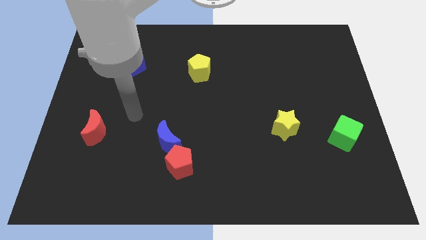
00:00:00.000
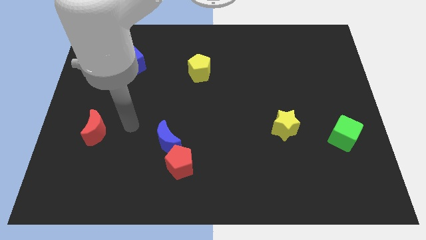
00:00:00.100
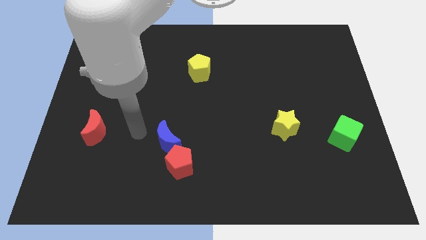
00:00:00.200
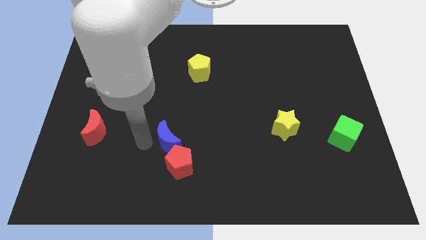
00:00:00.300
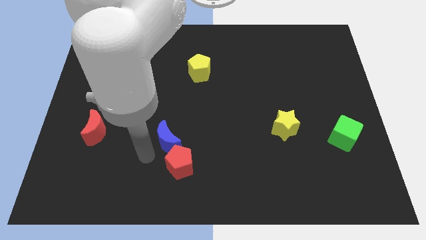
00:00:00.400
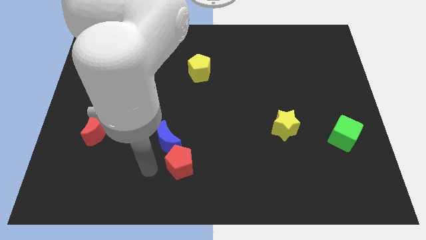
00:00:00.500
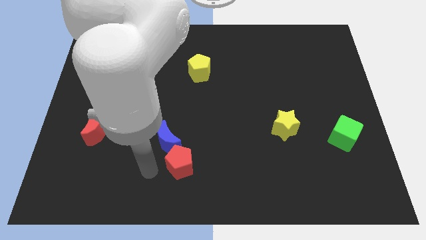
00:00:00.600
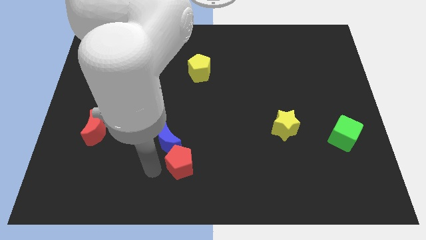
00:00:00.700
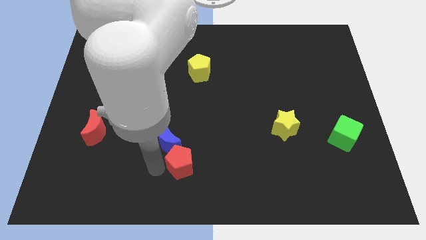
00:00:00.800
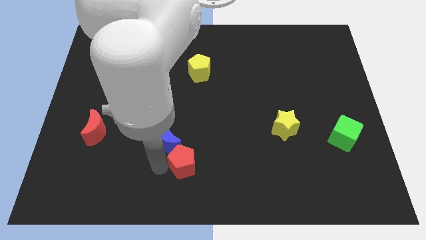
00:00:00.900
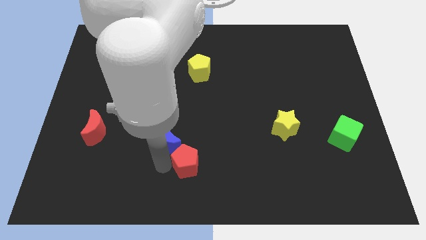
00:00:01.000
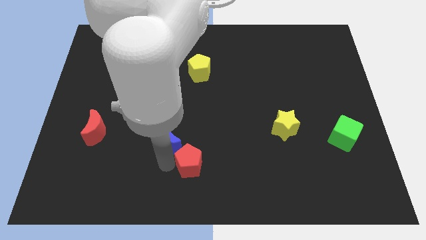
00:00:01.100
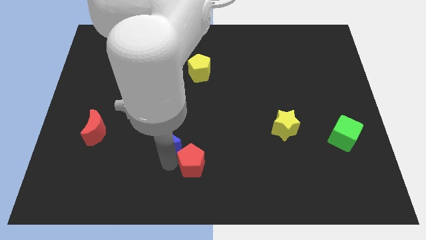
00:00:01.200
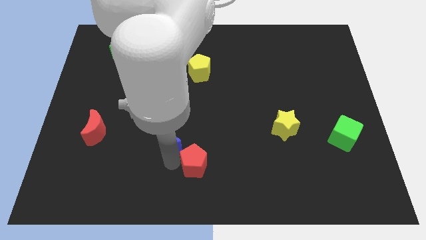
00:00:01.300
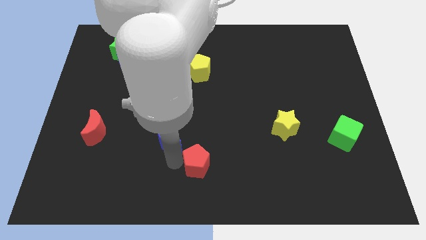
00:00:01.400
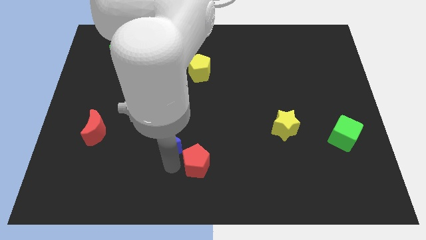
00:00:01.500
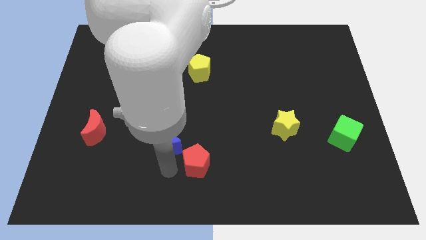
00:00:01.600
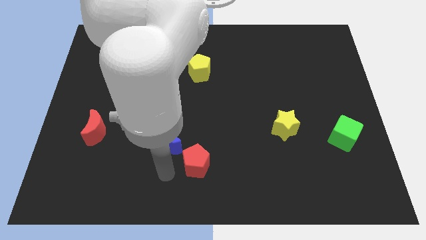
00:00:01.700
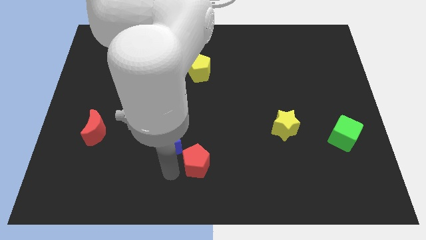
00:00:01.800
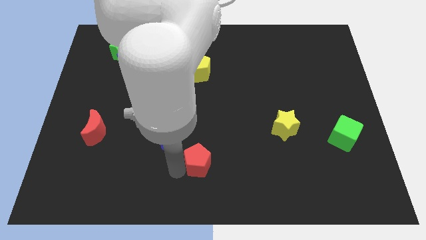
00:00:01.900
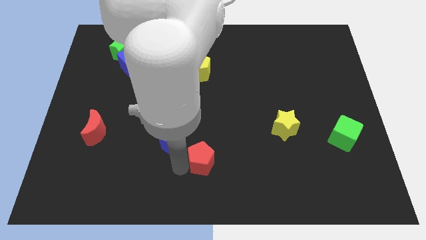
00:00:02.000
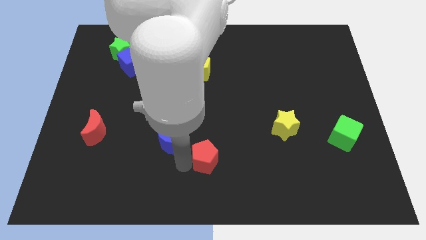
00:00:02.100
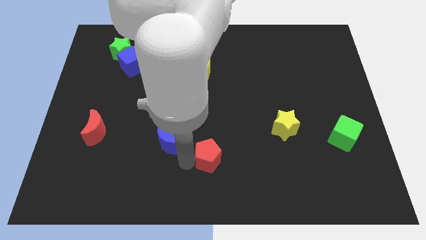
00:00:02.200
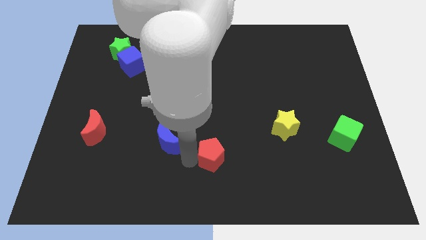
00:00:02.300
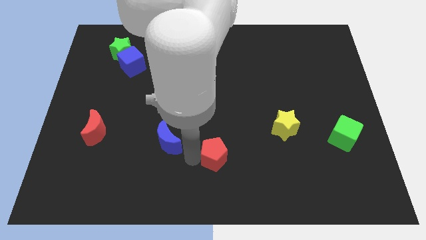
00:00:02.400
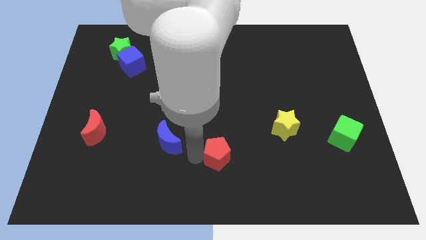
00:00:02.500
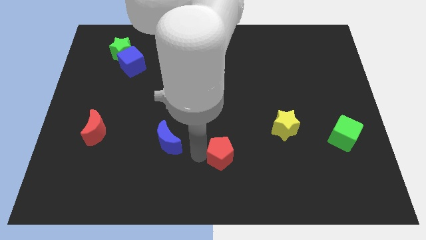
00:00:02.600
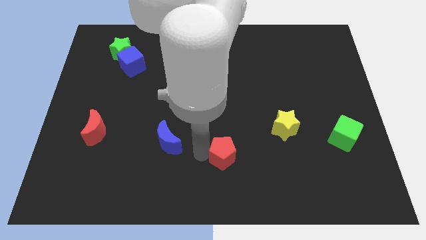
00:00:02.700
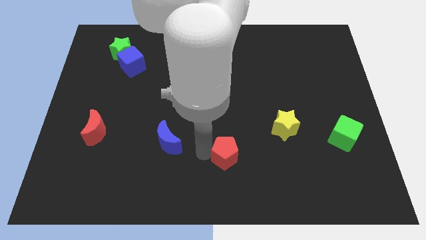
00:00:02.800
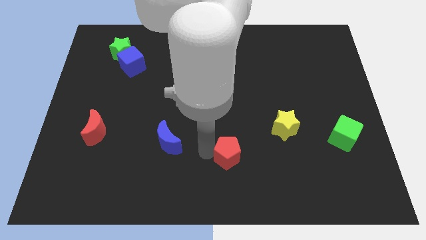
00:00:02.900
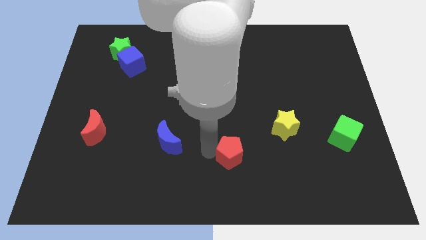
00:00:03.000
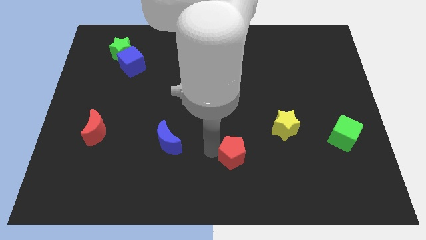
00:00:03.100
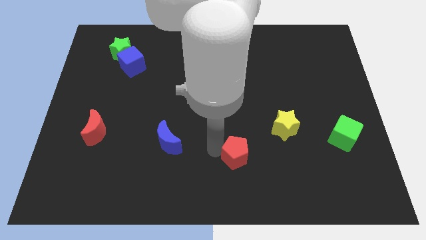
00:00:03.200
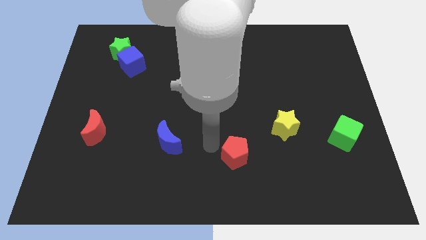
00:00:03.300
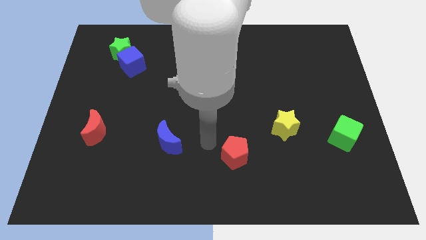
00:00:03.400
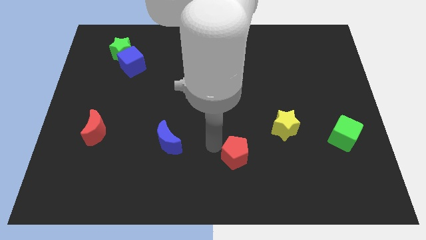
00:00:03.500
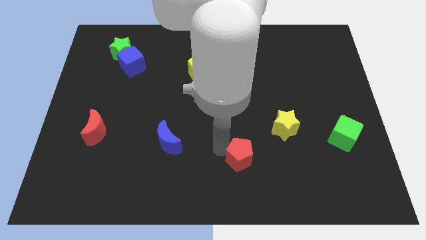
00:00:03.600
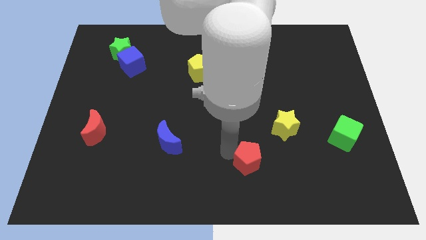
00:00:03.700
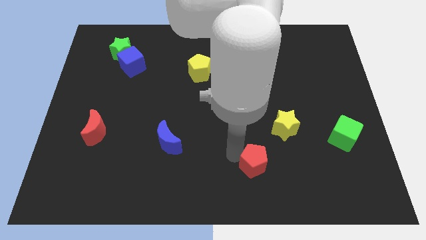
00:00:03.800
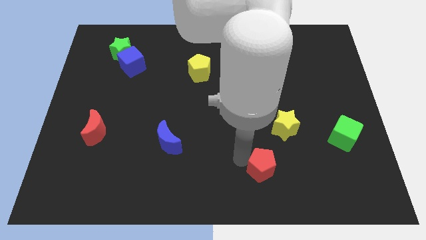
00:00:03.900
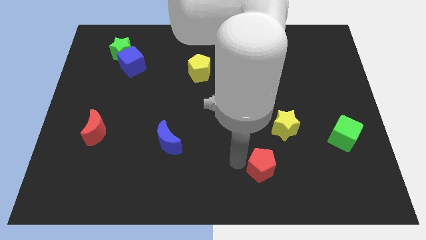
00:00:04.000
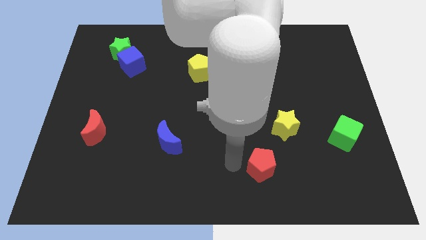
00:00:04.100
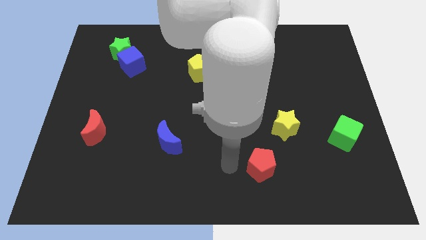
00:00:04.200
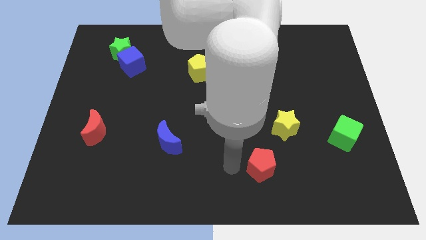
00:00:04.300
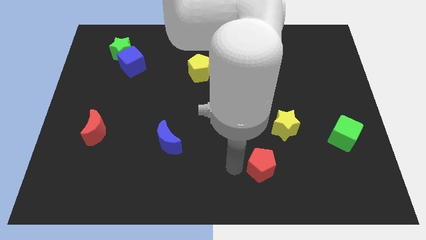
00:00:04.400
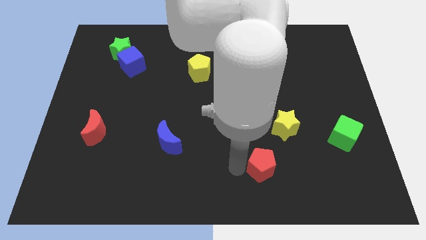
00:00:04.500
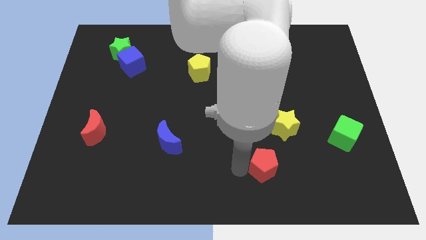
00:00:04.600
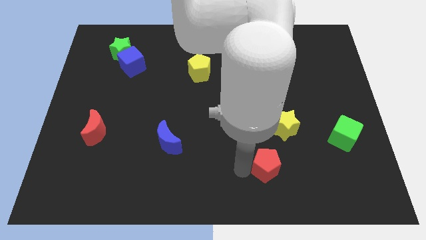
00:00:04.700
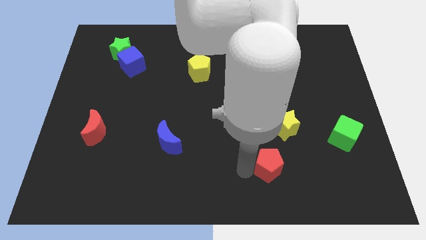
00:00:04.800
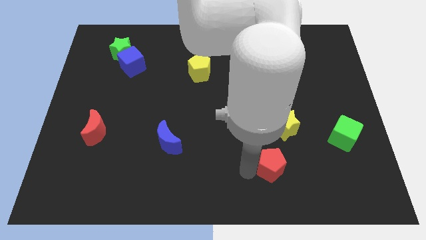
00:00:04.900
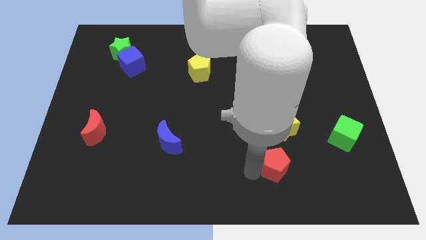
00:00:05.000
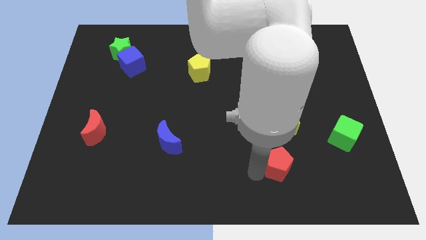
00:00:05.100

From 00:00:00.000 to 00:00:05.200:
push the red pentagon right

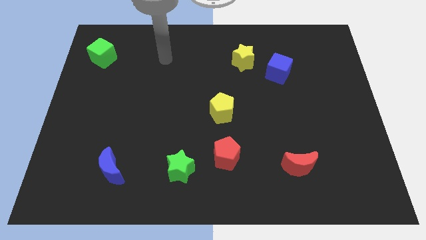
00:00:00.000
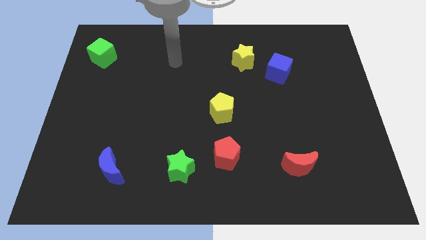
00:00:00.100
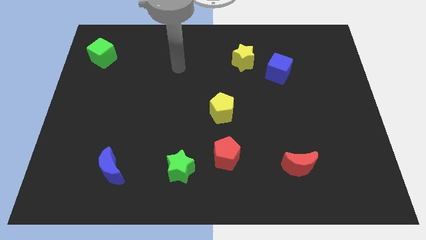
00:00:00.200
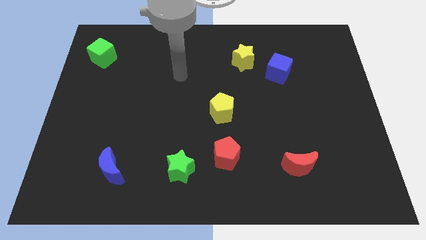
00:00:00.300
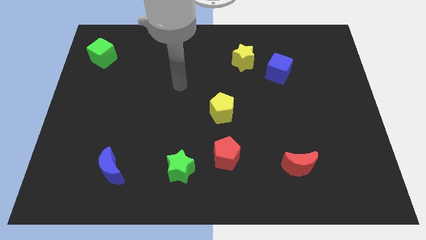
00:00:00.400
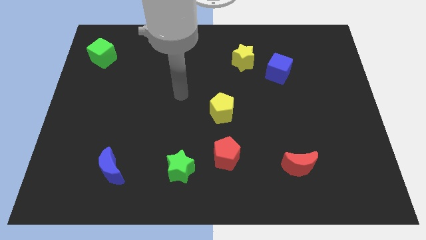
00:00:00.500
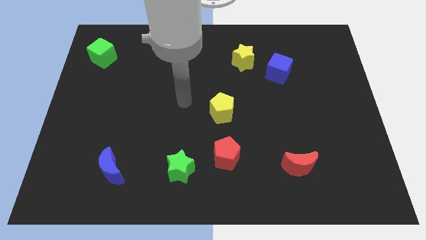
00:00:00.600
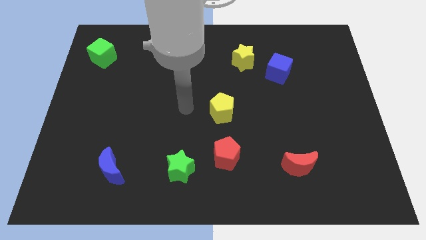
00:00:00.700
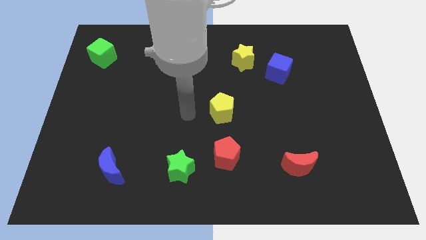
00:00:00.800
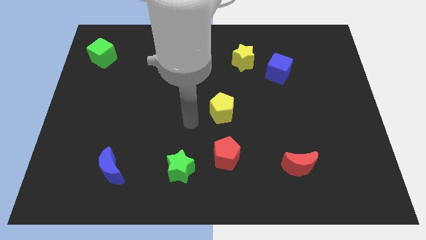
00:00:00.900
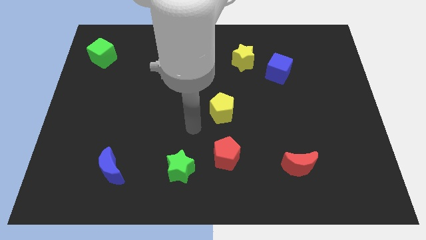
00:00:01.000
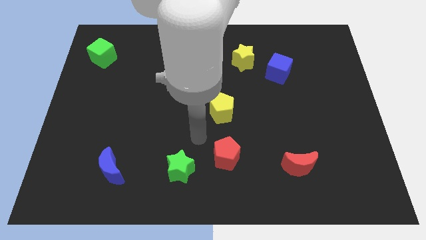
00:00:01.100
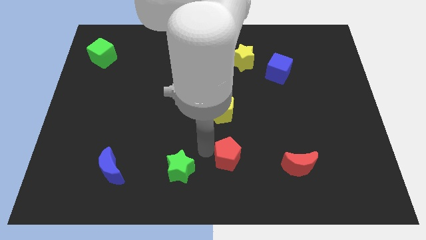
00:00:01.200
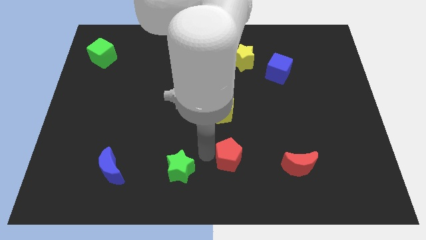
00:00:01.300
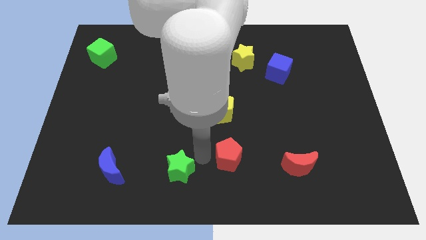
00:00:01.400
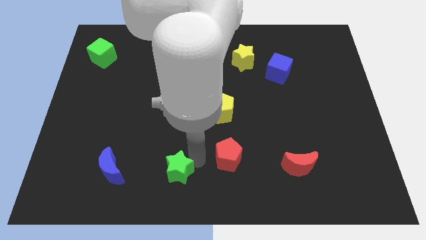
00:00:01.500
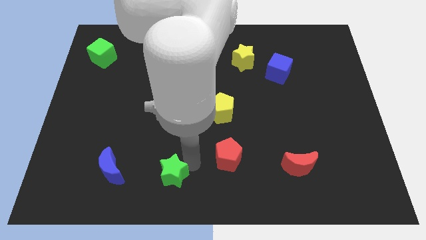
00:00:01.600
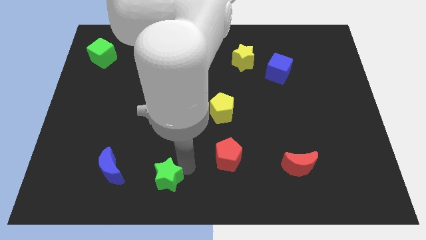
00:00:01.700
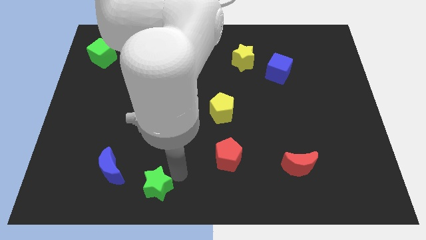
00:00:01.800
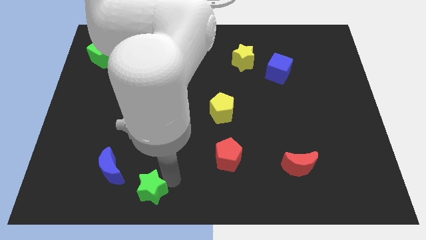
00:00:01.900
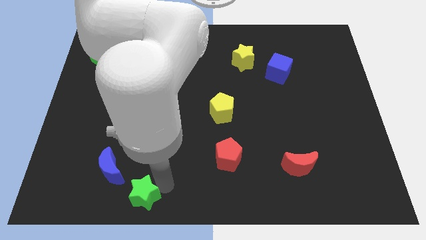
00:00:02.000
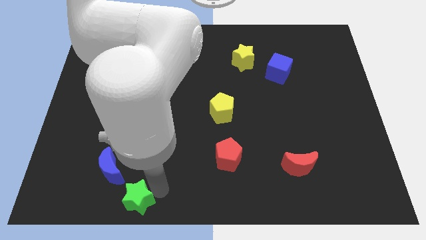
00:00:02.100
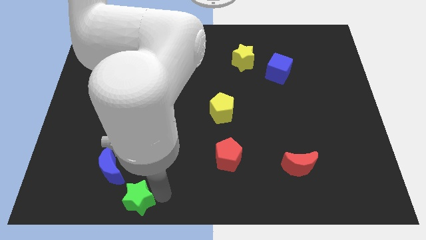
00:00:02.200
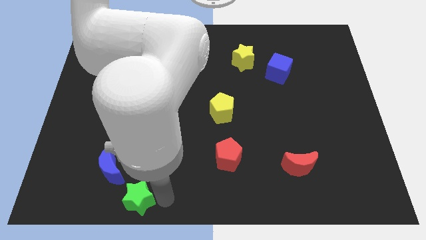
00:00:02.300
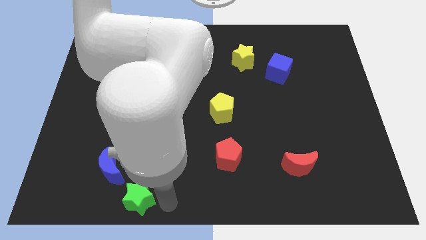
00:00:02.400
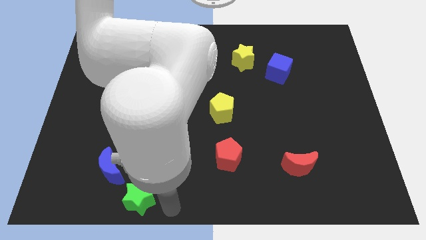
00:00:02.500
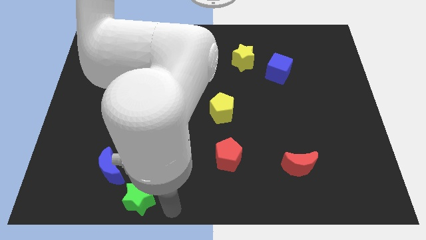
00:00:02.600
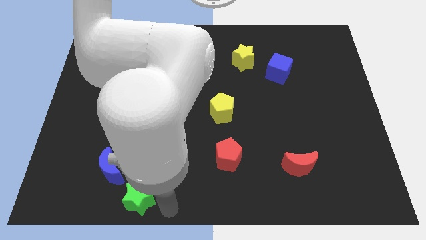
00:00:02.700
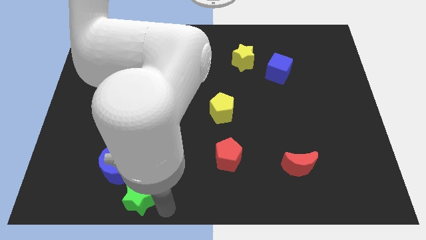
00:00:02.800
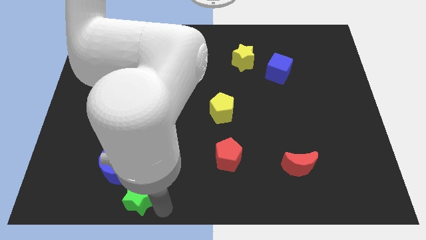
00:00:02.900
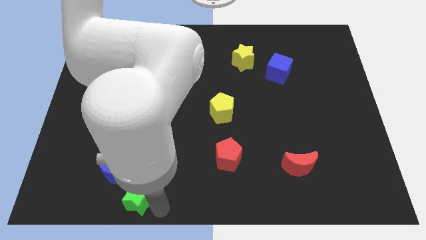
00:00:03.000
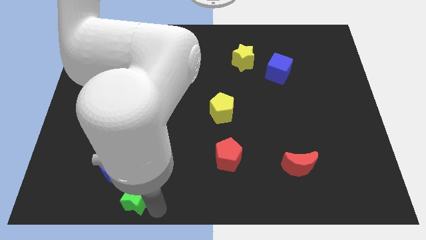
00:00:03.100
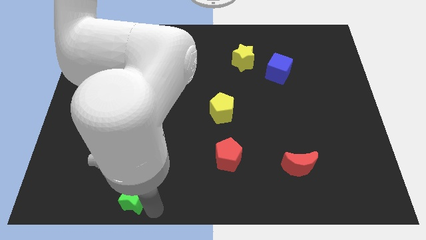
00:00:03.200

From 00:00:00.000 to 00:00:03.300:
slide the green star to the left a bit
